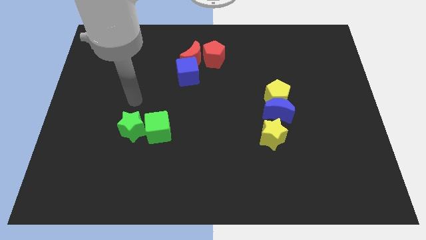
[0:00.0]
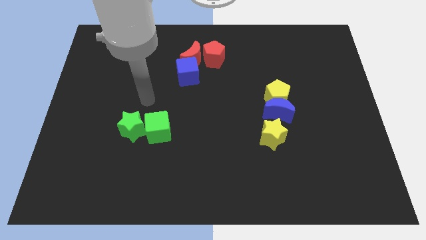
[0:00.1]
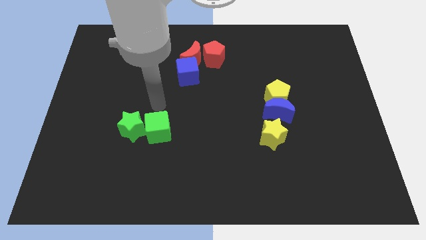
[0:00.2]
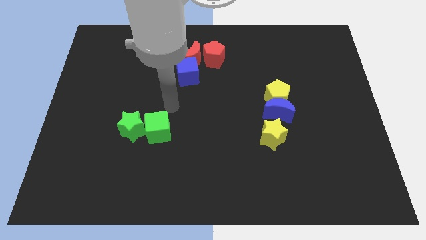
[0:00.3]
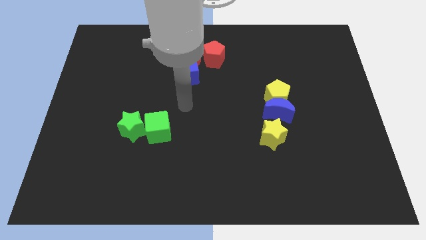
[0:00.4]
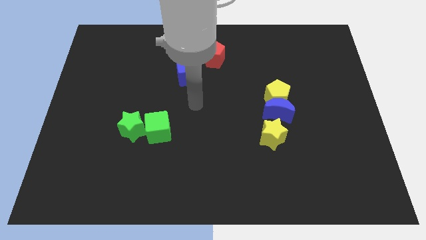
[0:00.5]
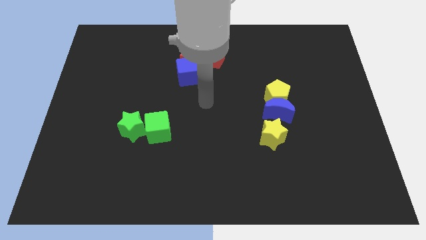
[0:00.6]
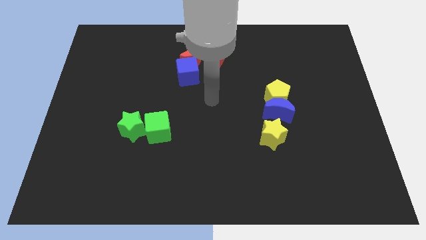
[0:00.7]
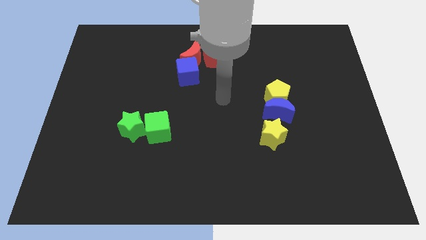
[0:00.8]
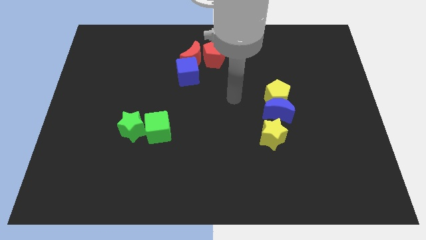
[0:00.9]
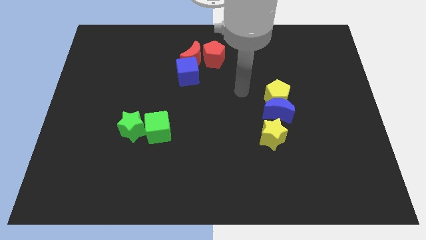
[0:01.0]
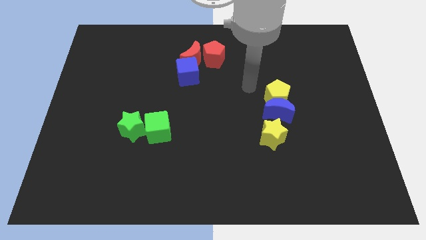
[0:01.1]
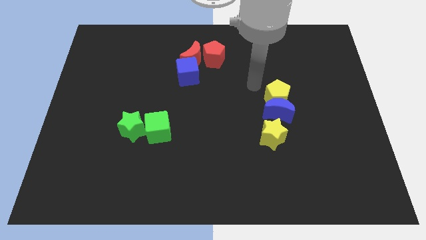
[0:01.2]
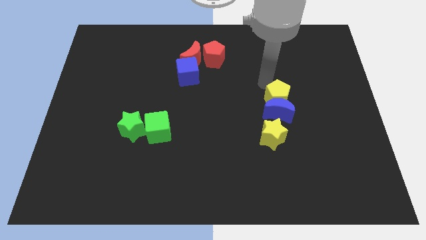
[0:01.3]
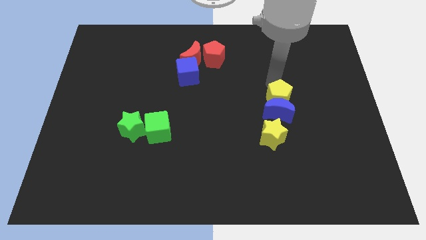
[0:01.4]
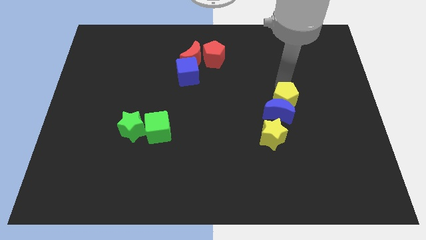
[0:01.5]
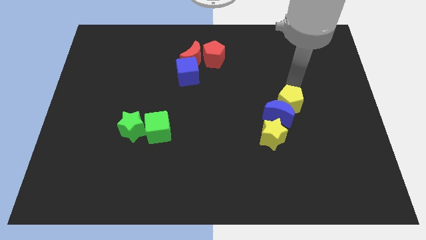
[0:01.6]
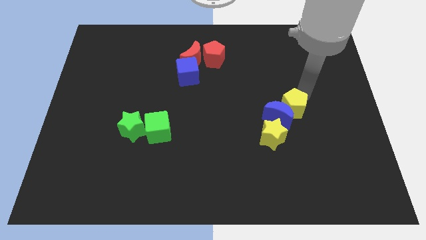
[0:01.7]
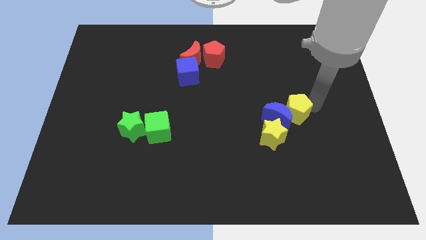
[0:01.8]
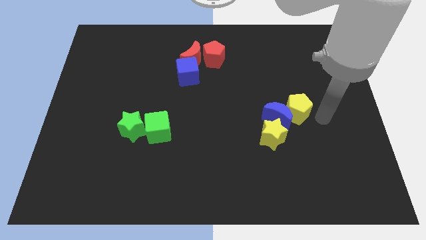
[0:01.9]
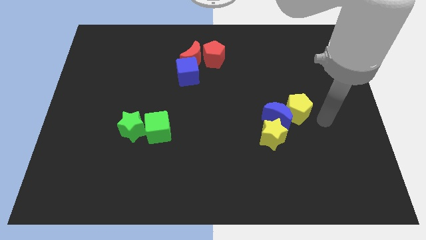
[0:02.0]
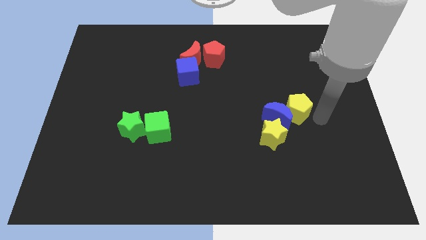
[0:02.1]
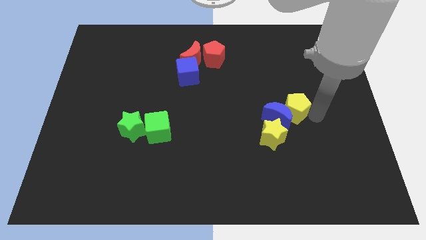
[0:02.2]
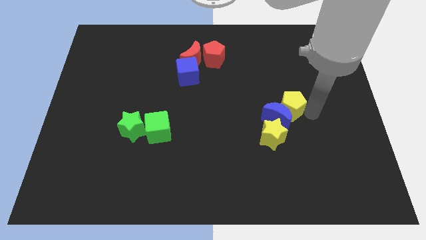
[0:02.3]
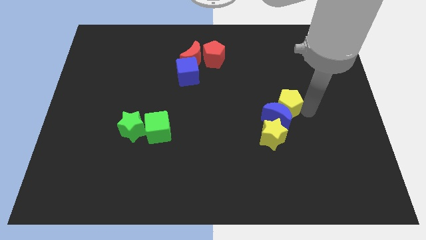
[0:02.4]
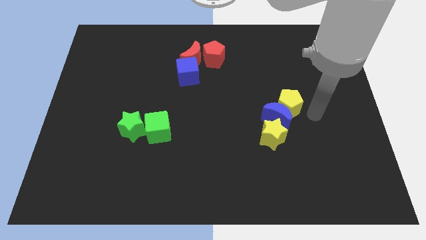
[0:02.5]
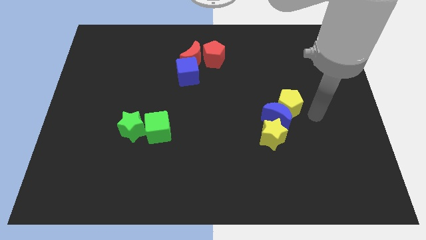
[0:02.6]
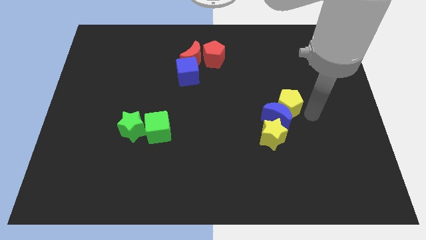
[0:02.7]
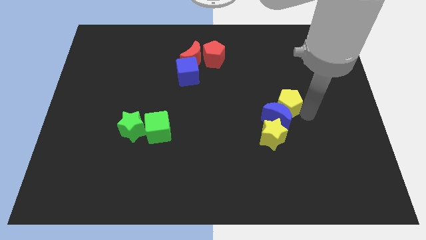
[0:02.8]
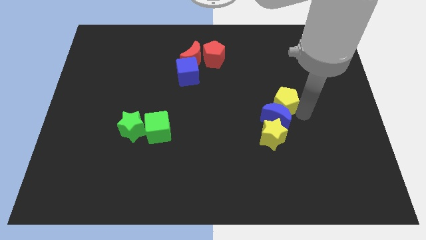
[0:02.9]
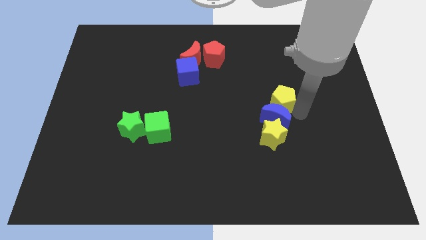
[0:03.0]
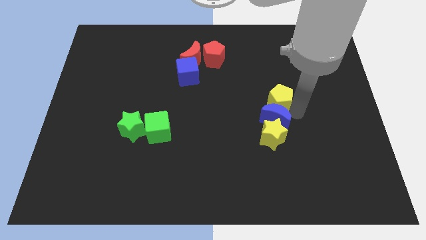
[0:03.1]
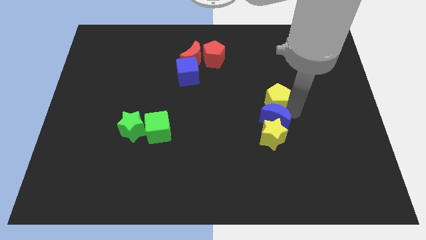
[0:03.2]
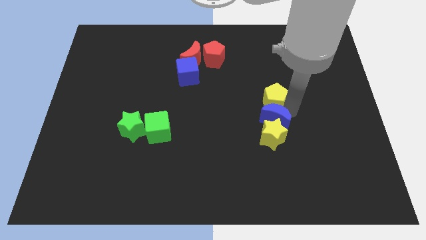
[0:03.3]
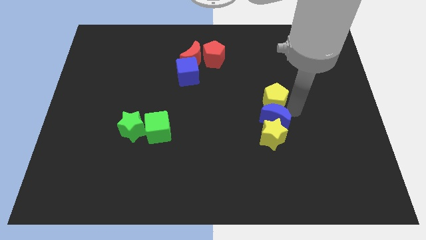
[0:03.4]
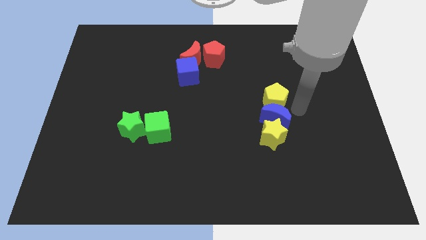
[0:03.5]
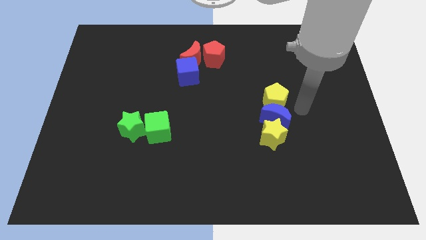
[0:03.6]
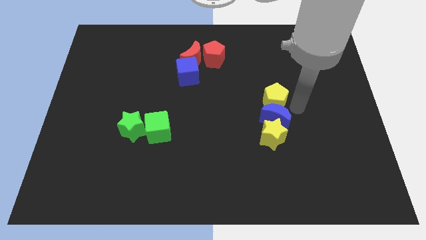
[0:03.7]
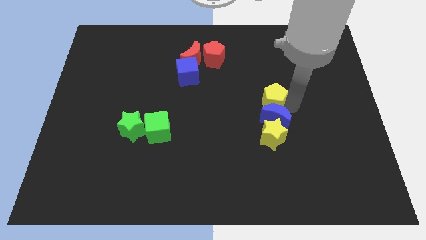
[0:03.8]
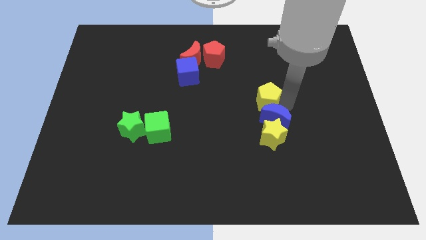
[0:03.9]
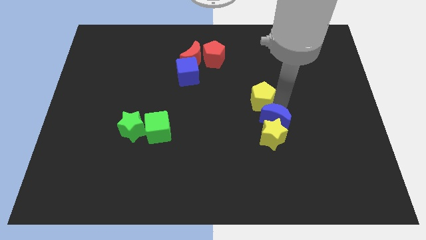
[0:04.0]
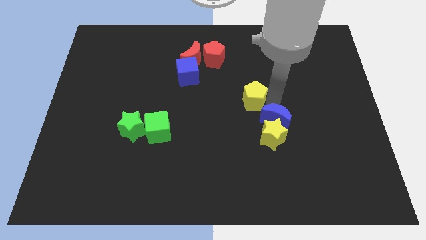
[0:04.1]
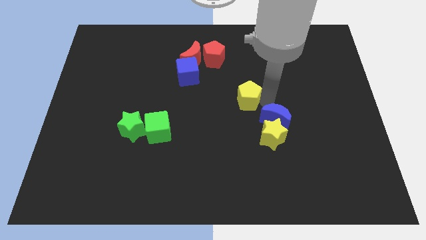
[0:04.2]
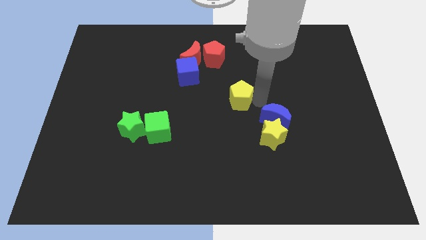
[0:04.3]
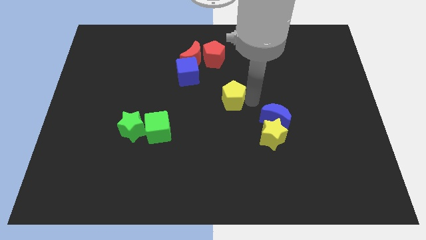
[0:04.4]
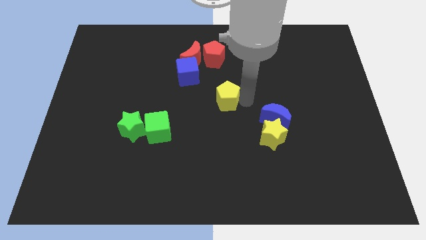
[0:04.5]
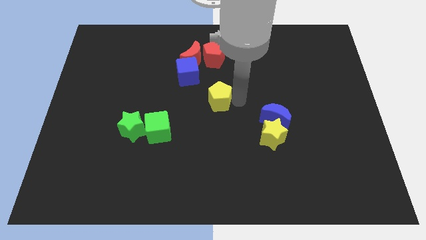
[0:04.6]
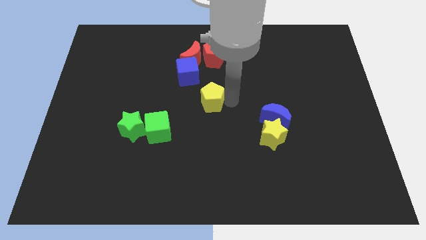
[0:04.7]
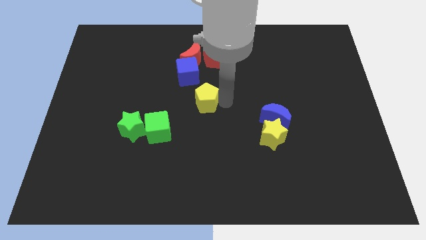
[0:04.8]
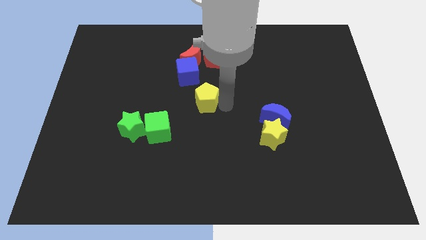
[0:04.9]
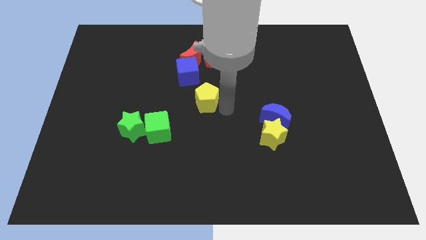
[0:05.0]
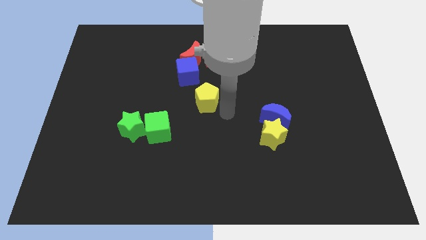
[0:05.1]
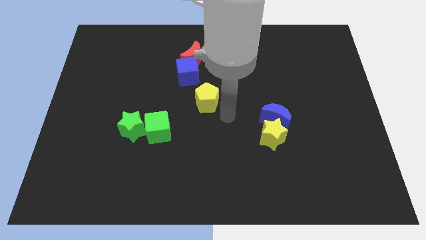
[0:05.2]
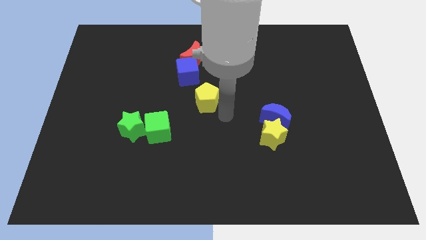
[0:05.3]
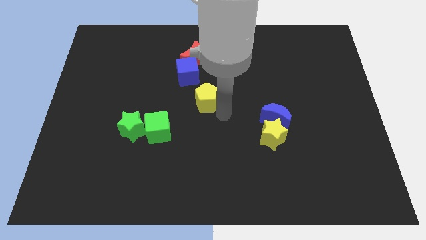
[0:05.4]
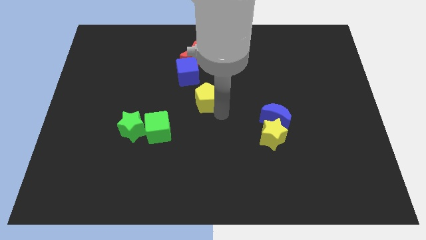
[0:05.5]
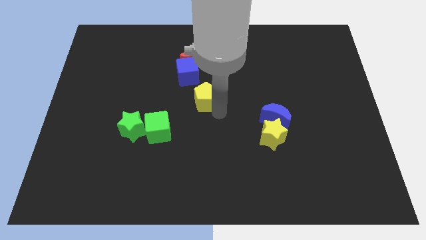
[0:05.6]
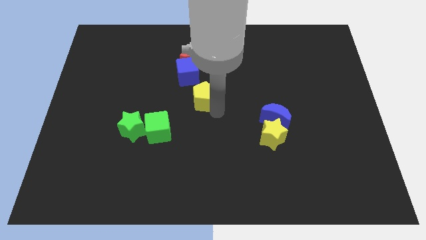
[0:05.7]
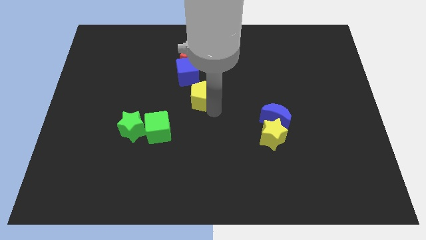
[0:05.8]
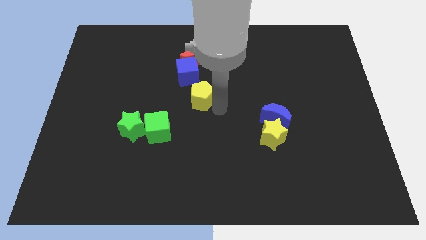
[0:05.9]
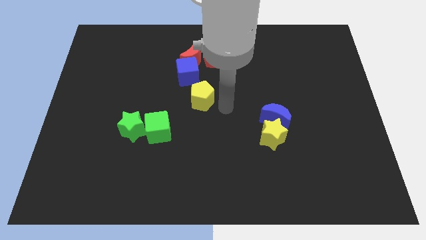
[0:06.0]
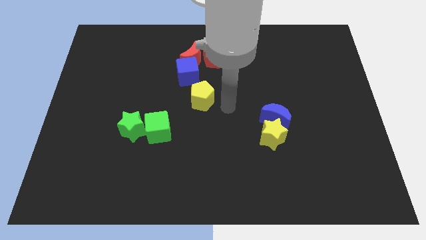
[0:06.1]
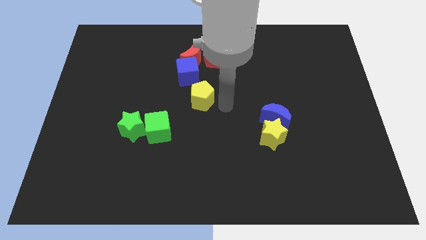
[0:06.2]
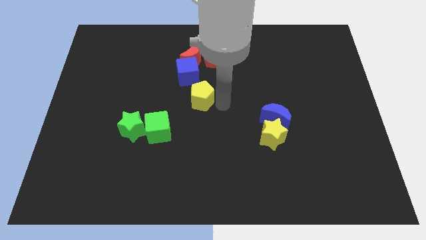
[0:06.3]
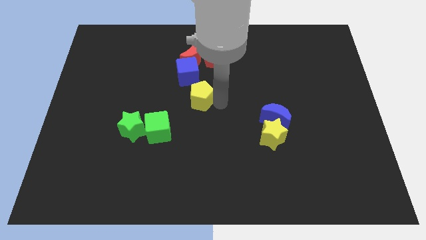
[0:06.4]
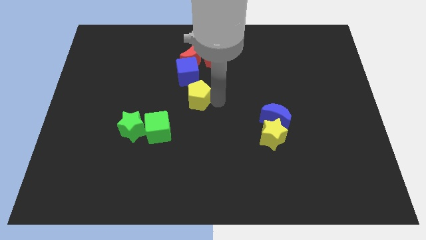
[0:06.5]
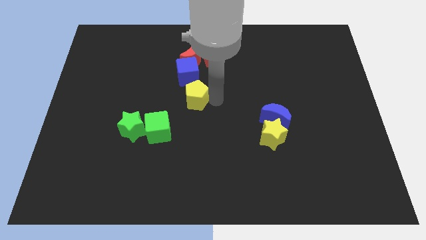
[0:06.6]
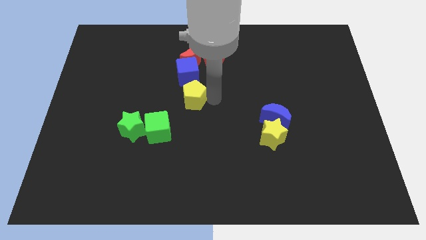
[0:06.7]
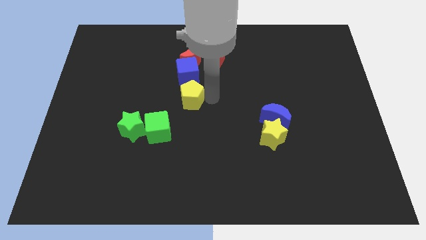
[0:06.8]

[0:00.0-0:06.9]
move the yellow pentagon left

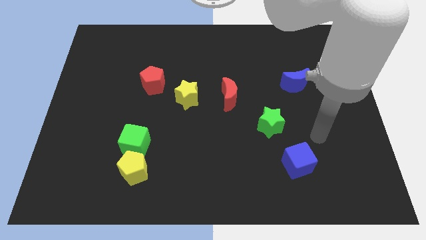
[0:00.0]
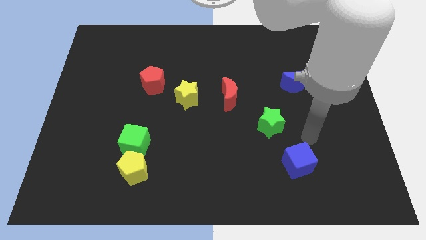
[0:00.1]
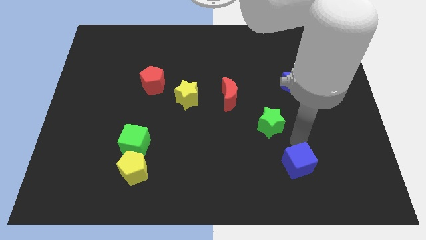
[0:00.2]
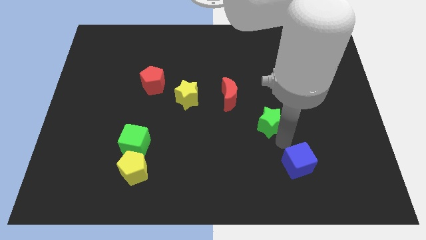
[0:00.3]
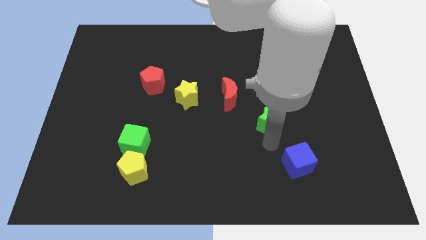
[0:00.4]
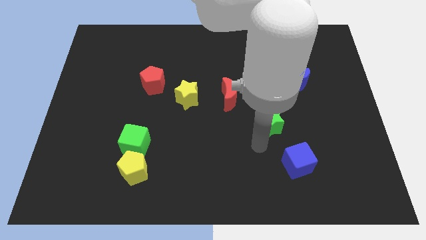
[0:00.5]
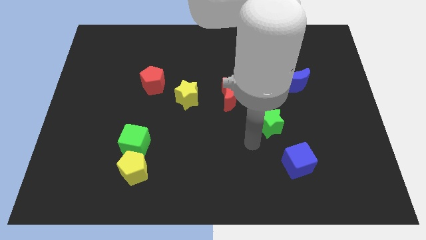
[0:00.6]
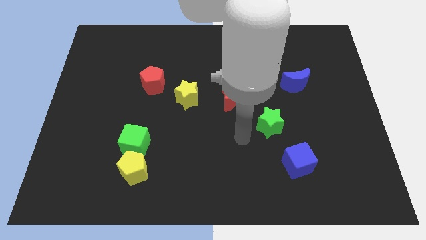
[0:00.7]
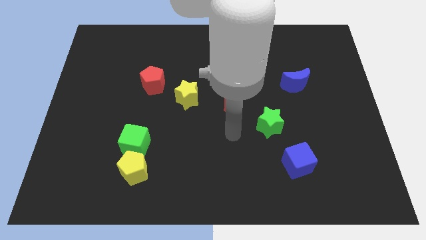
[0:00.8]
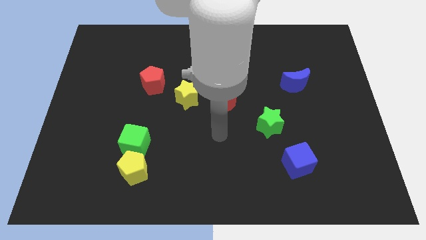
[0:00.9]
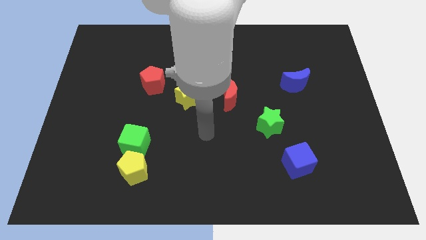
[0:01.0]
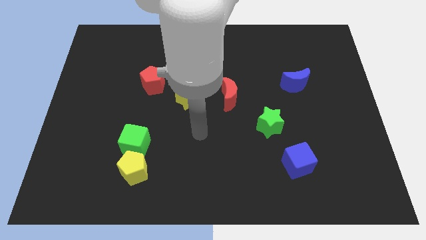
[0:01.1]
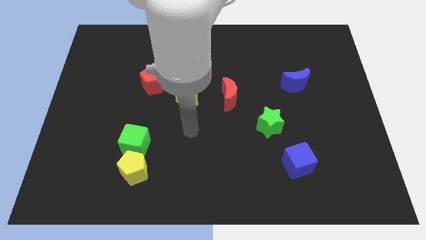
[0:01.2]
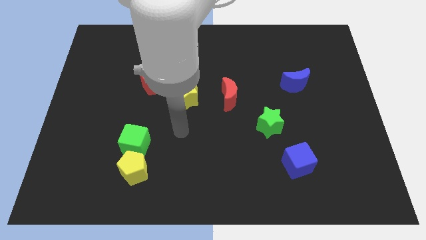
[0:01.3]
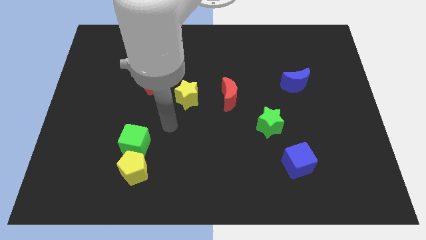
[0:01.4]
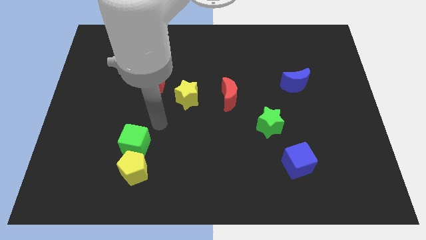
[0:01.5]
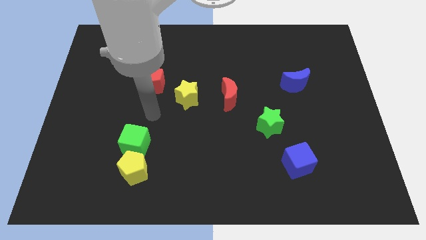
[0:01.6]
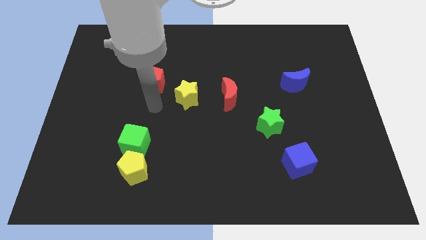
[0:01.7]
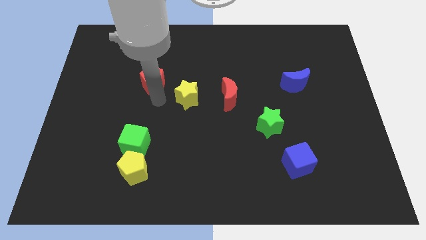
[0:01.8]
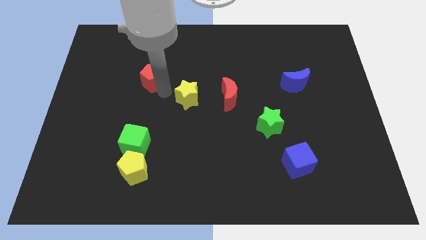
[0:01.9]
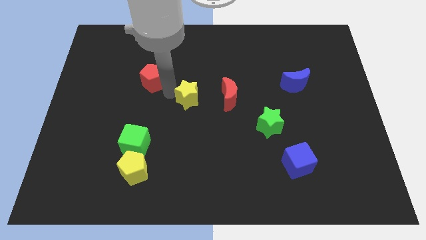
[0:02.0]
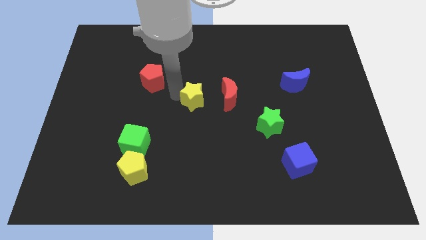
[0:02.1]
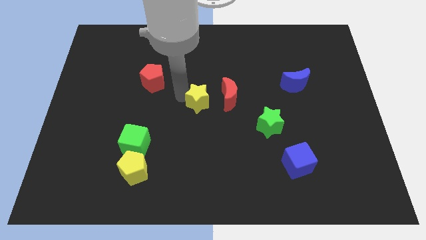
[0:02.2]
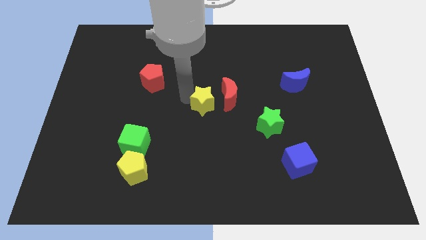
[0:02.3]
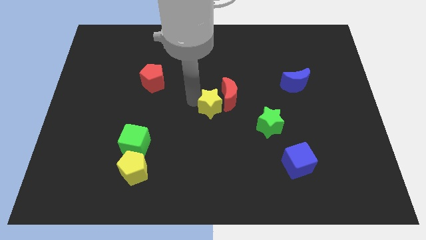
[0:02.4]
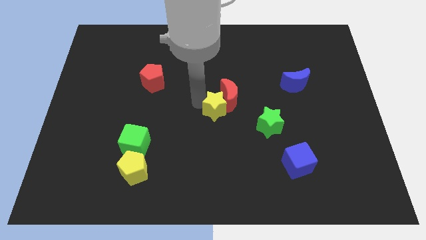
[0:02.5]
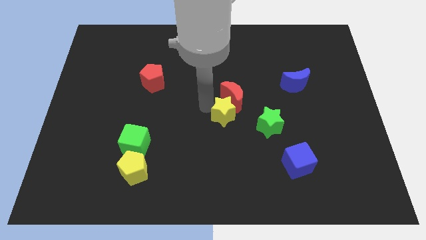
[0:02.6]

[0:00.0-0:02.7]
slightly slide the yellow star right
